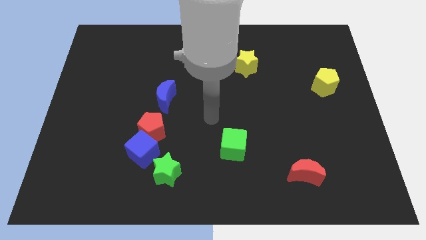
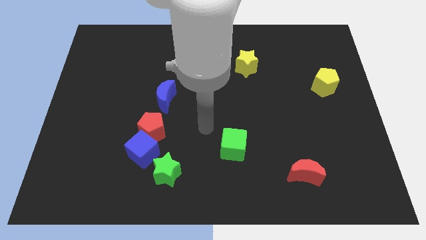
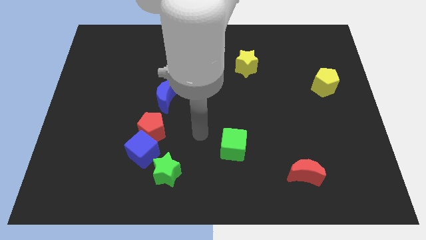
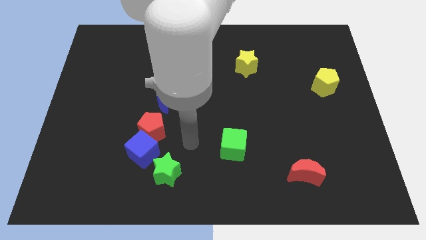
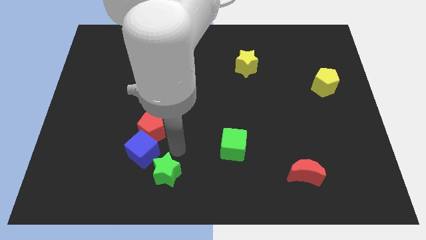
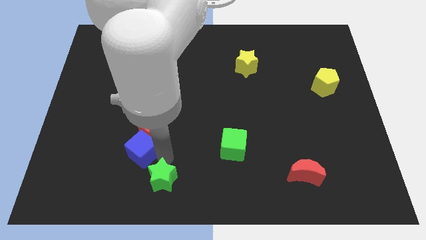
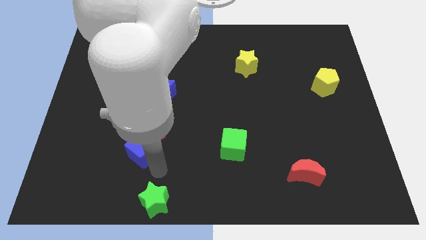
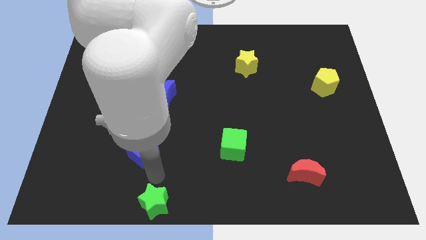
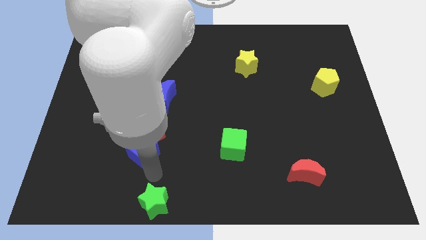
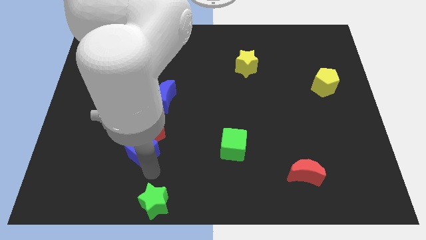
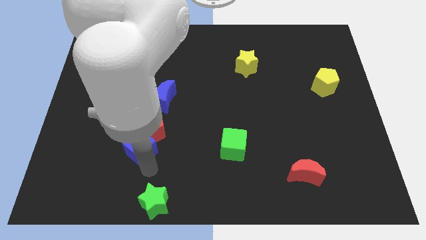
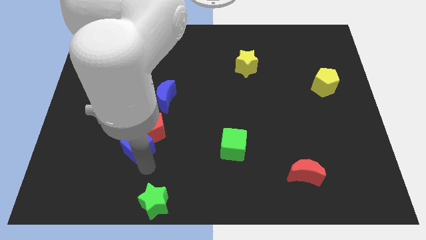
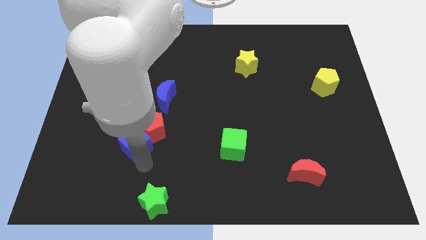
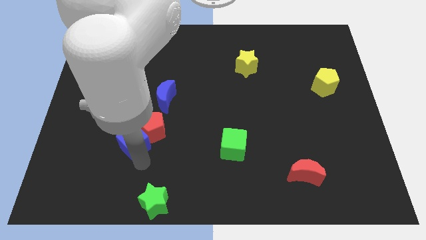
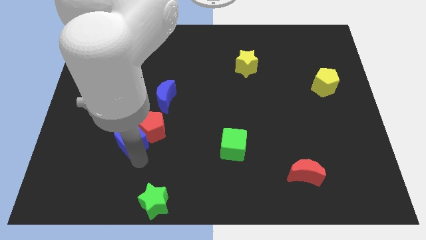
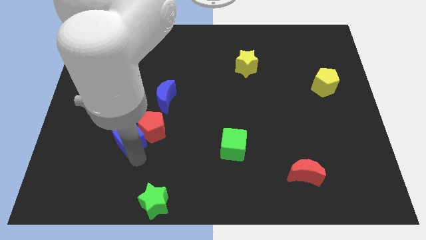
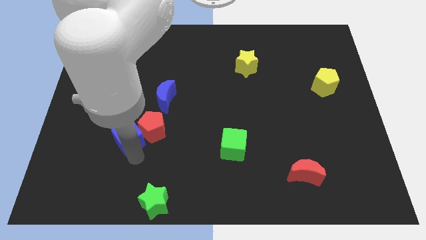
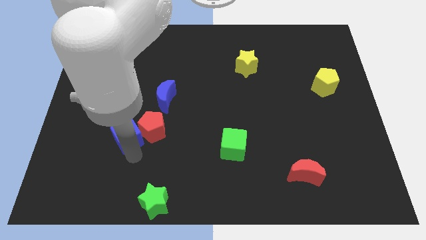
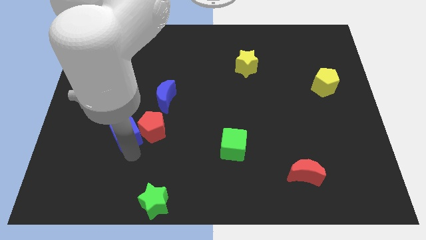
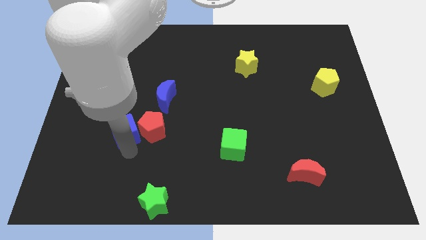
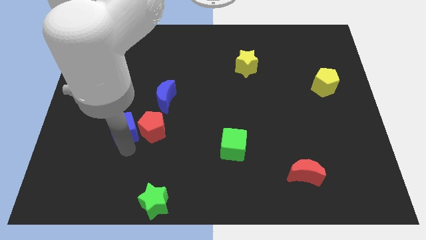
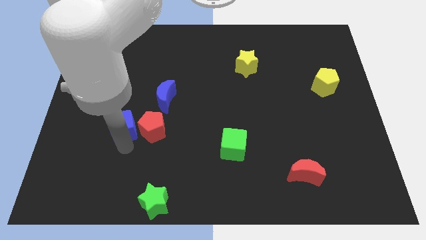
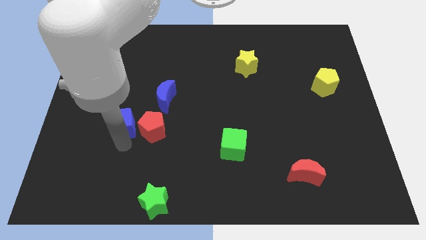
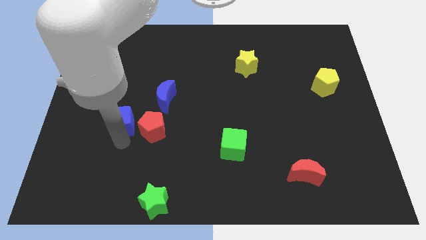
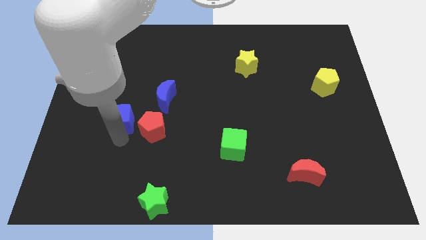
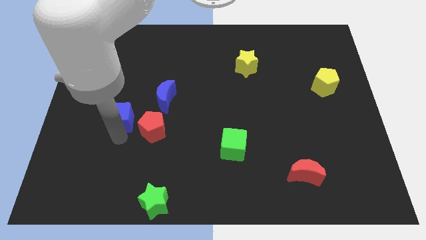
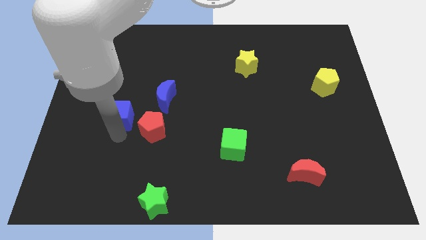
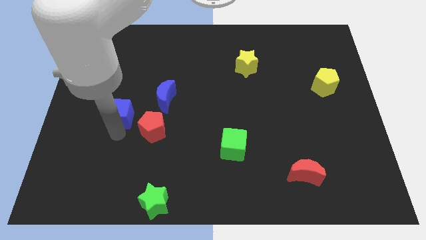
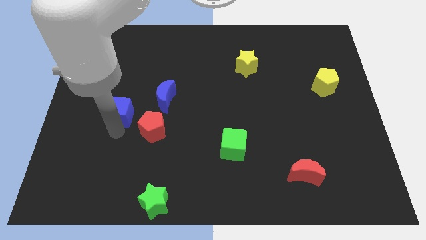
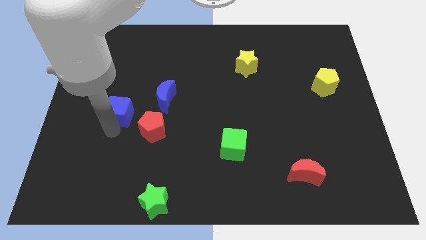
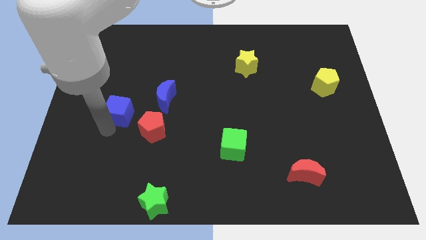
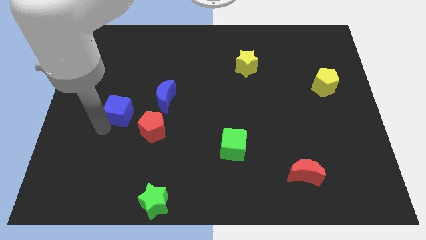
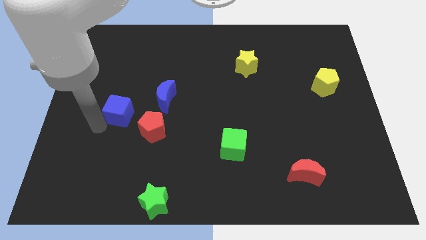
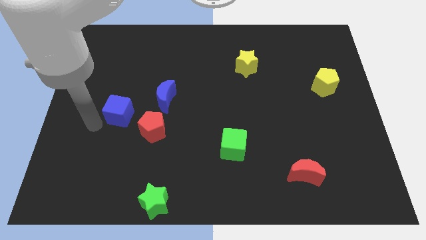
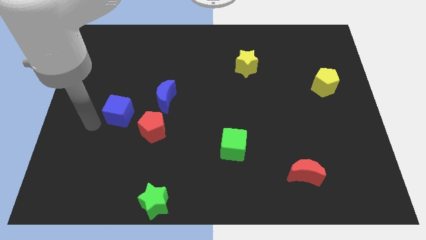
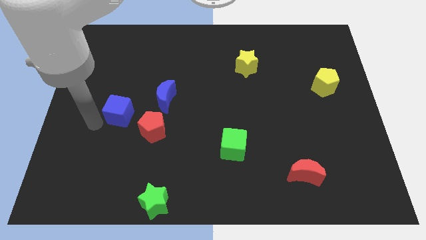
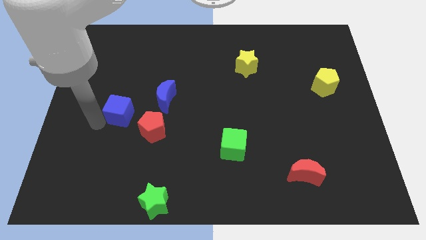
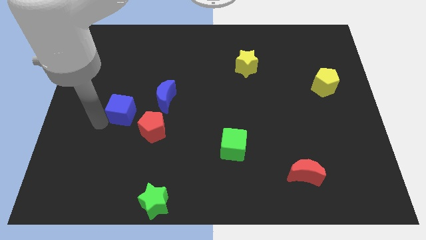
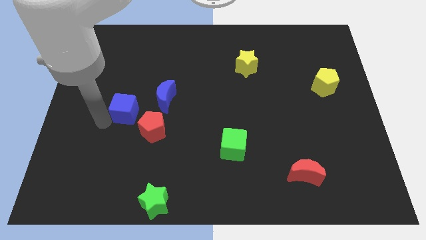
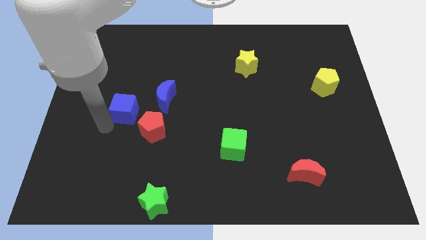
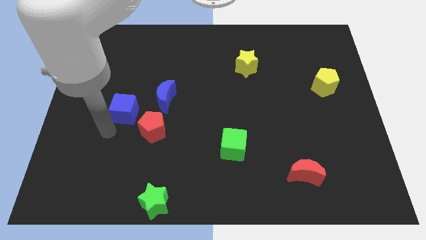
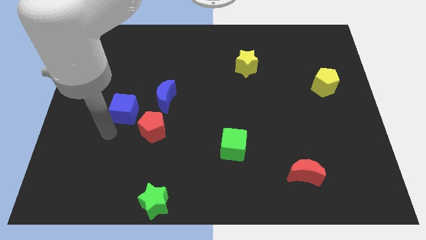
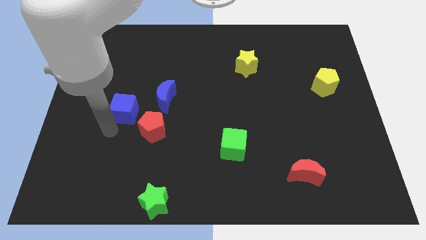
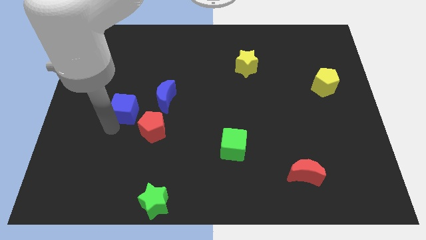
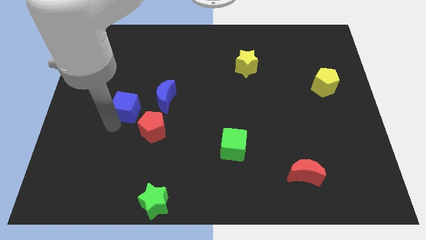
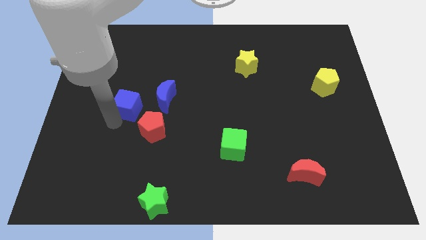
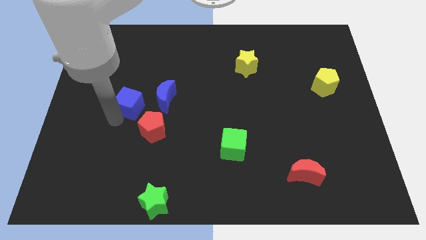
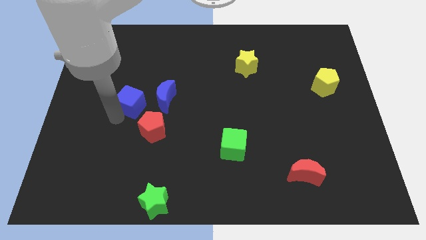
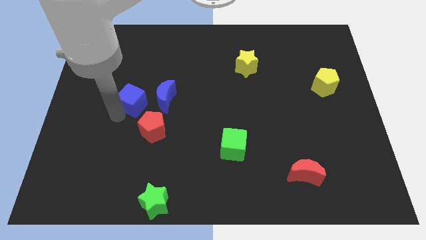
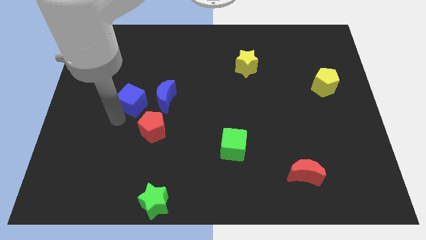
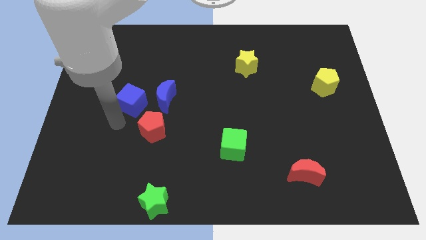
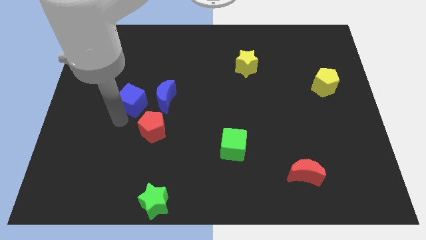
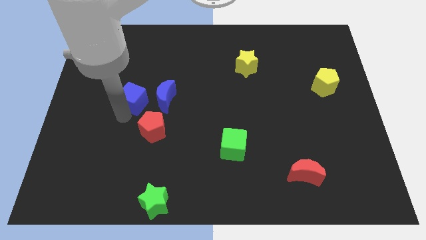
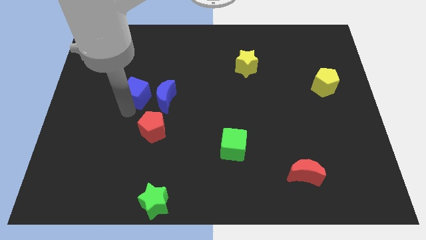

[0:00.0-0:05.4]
put the blue cube to the top left of the blue moon
